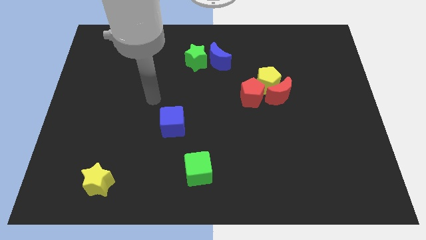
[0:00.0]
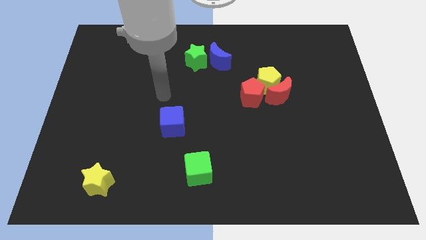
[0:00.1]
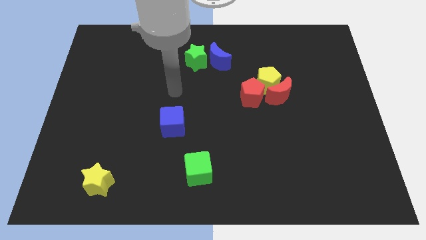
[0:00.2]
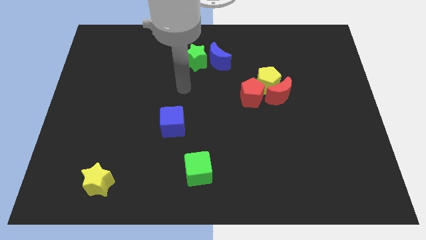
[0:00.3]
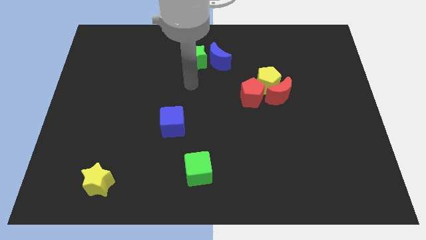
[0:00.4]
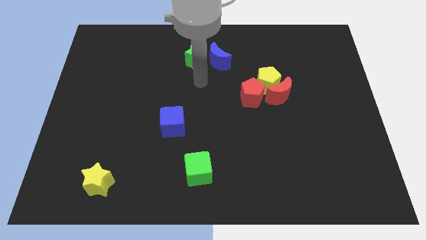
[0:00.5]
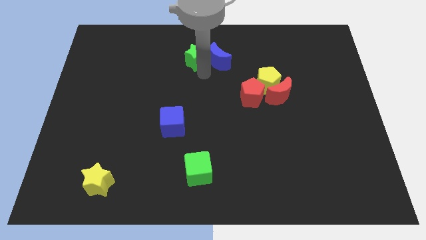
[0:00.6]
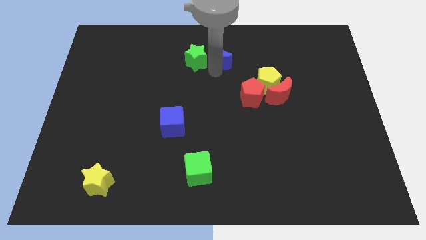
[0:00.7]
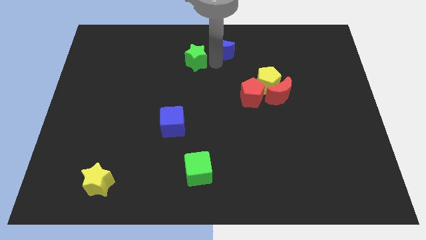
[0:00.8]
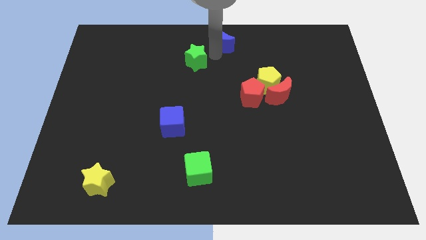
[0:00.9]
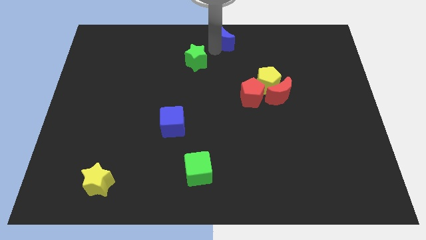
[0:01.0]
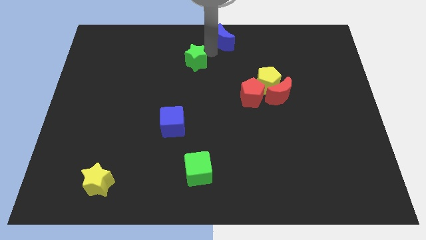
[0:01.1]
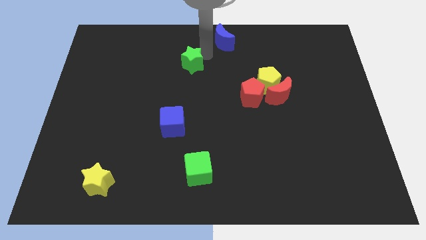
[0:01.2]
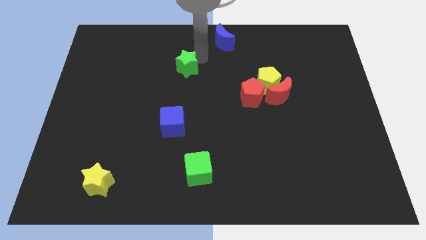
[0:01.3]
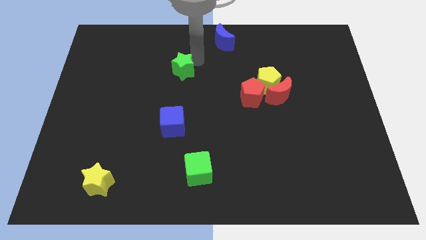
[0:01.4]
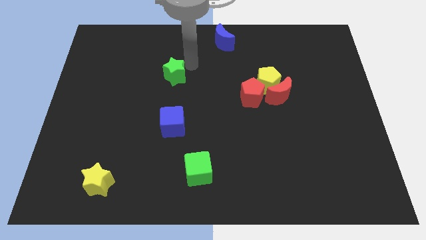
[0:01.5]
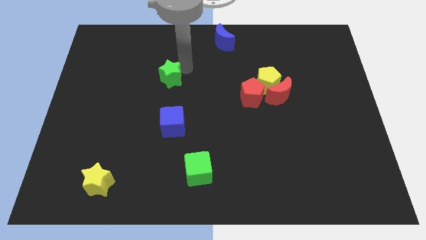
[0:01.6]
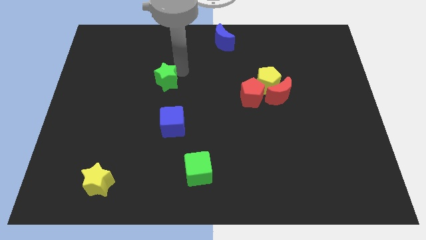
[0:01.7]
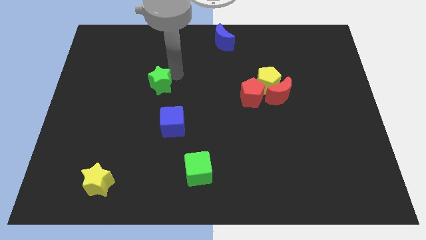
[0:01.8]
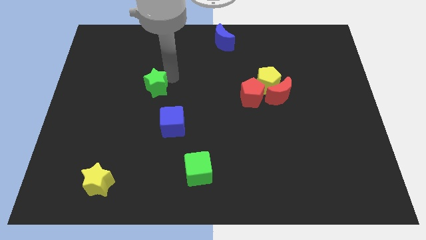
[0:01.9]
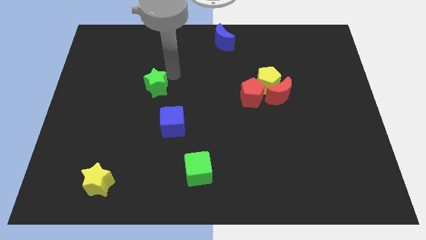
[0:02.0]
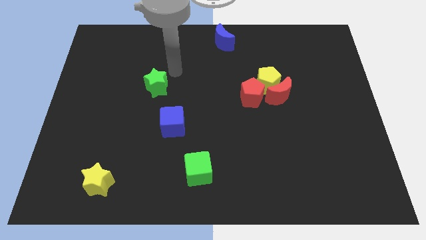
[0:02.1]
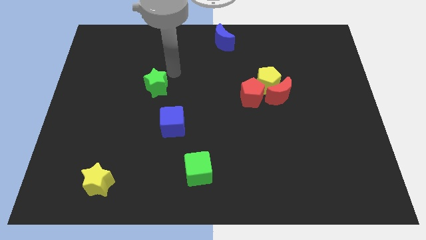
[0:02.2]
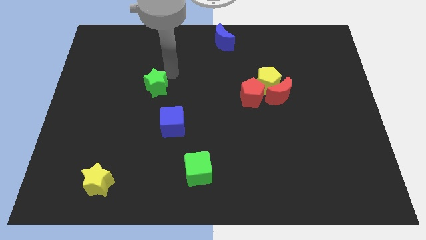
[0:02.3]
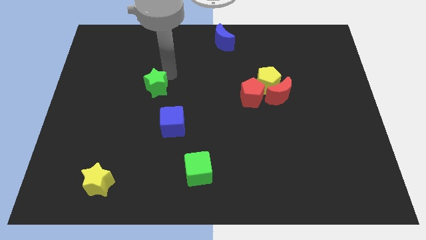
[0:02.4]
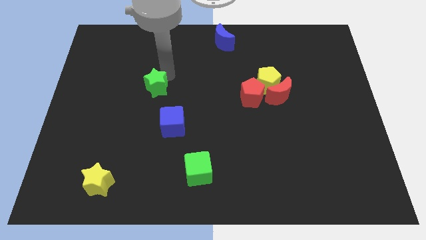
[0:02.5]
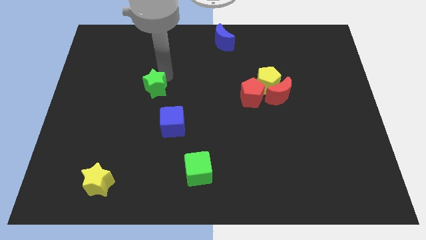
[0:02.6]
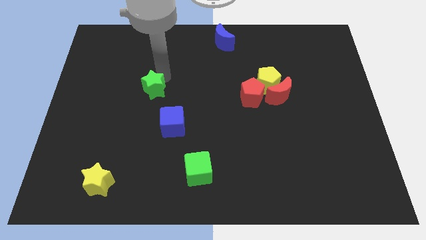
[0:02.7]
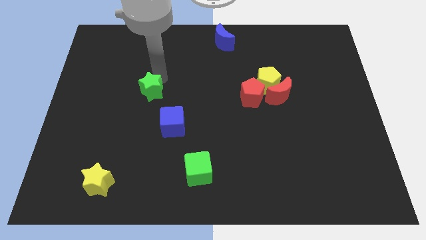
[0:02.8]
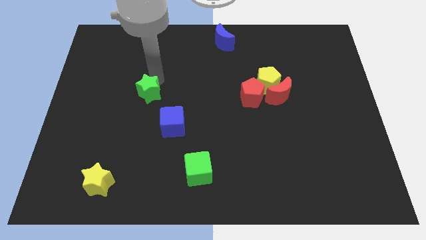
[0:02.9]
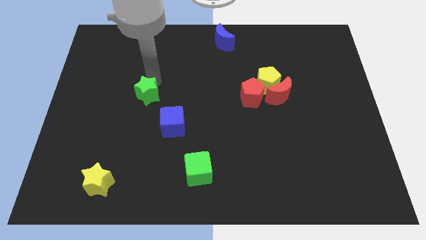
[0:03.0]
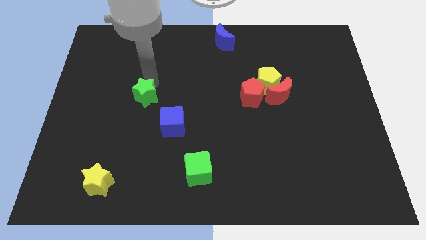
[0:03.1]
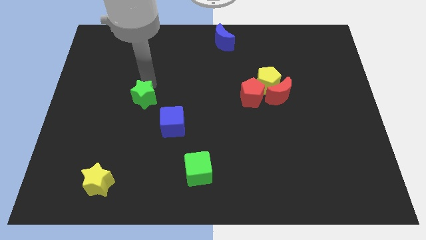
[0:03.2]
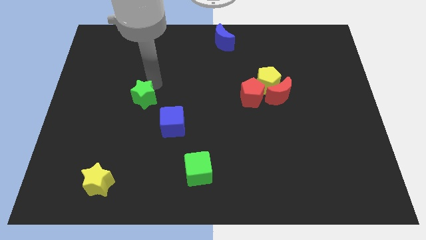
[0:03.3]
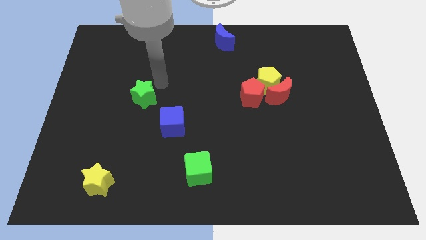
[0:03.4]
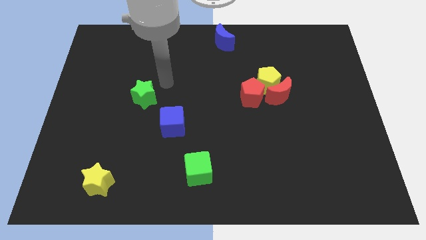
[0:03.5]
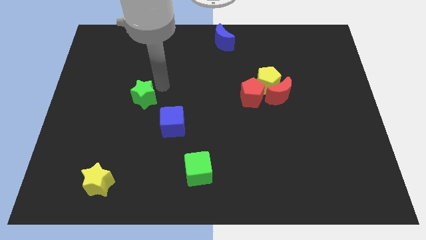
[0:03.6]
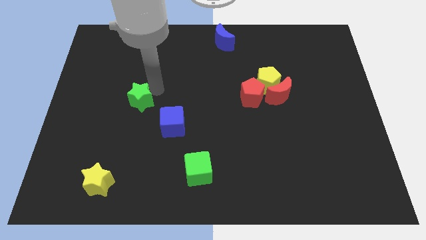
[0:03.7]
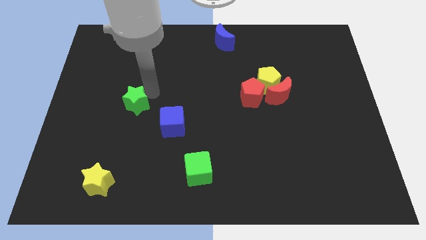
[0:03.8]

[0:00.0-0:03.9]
move the green star down and left

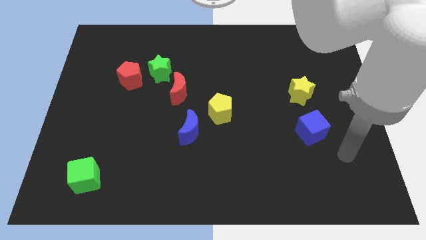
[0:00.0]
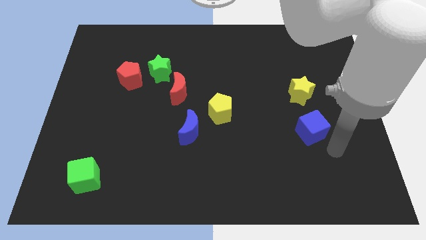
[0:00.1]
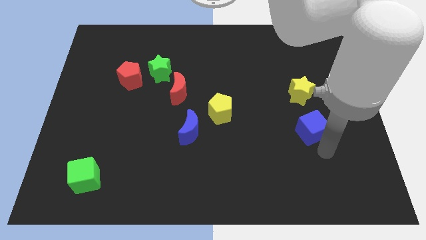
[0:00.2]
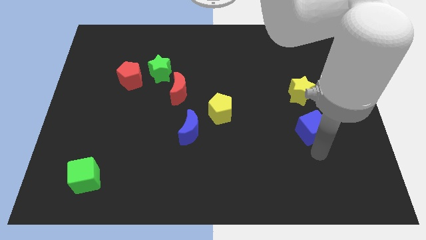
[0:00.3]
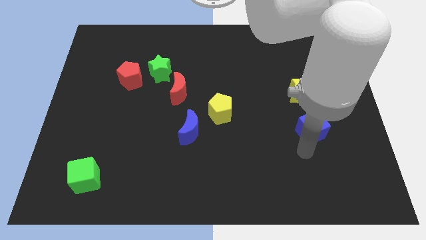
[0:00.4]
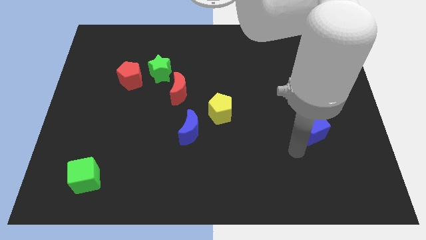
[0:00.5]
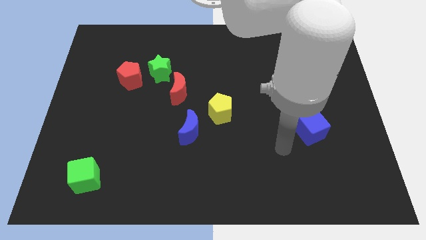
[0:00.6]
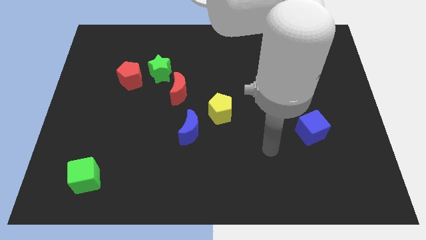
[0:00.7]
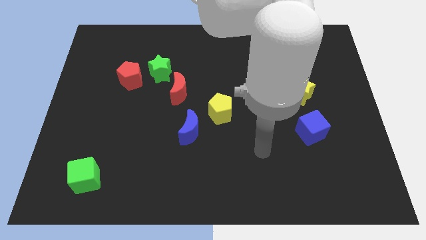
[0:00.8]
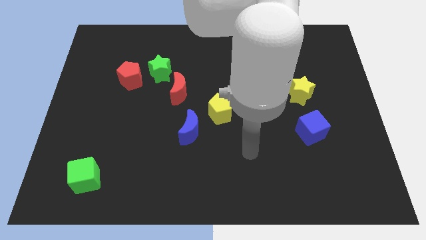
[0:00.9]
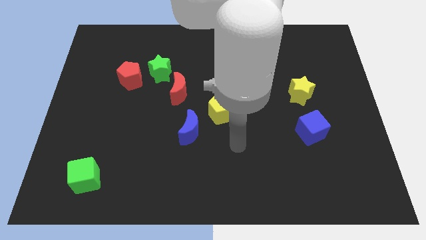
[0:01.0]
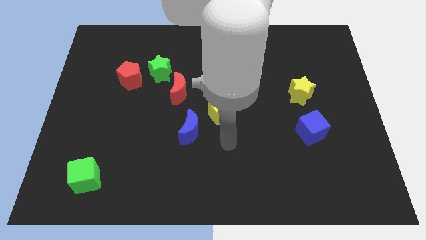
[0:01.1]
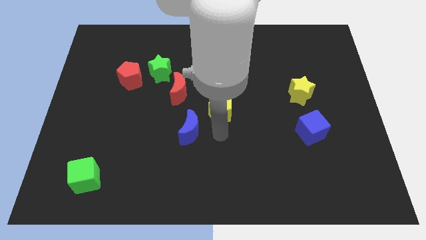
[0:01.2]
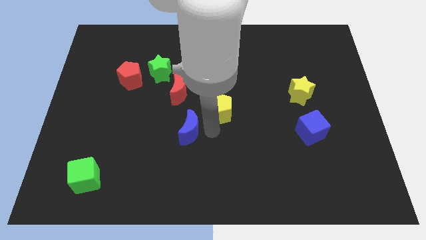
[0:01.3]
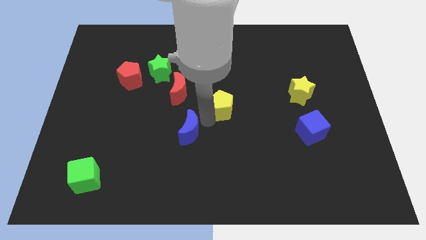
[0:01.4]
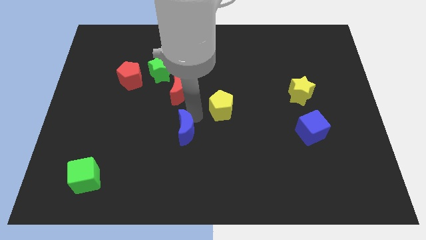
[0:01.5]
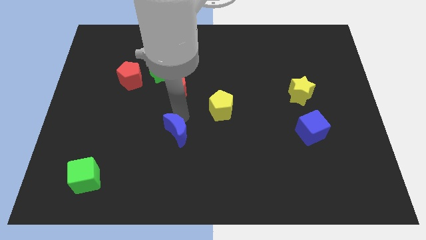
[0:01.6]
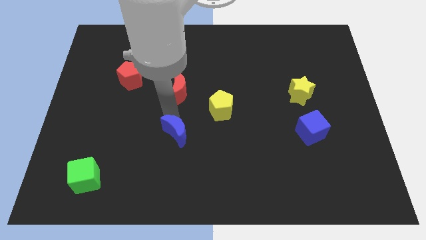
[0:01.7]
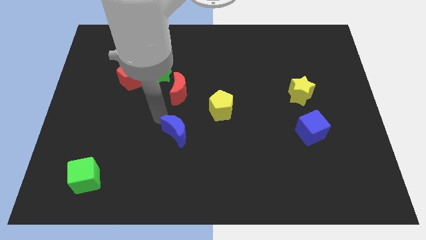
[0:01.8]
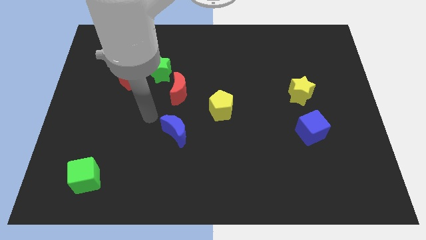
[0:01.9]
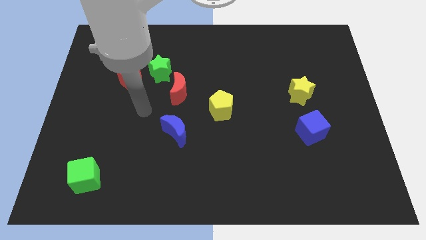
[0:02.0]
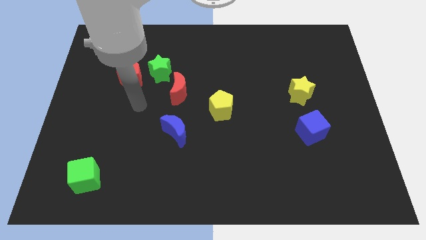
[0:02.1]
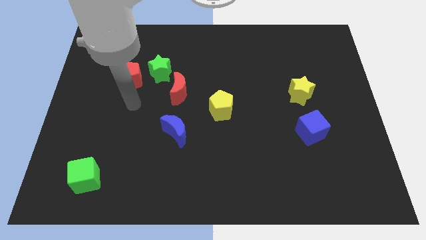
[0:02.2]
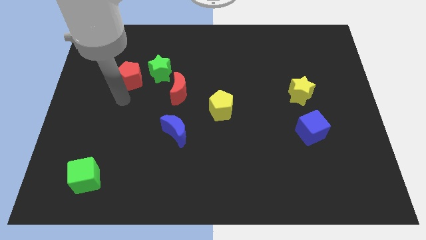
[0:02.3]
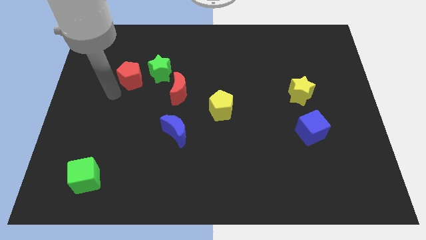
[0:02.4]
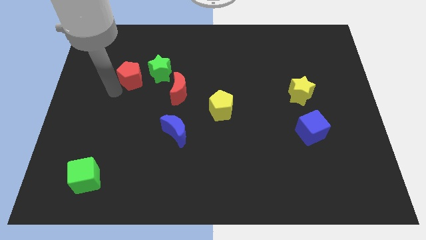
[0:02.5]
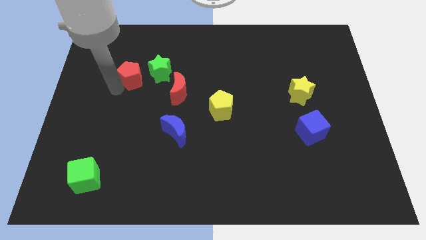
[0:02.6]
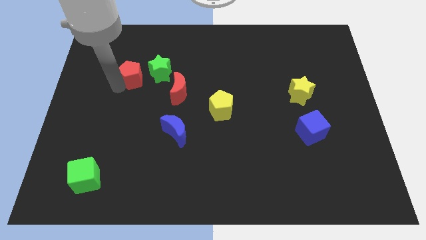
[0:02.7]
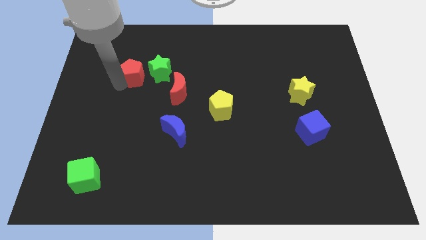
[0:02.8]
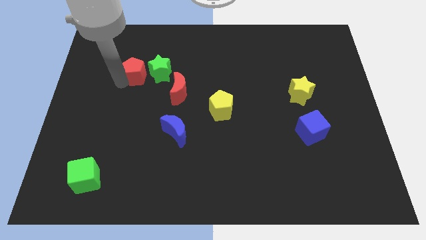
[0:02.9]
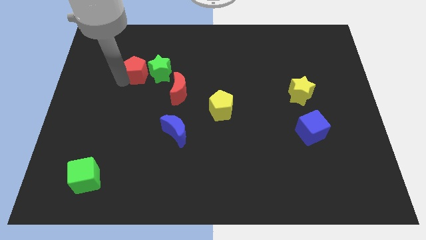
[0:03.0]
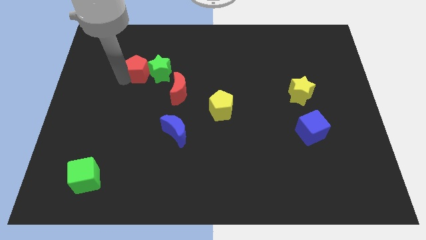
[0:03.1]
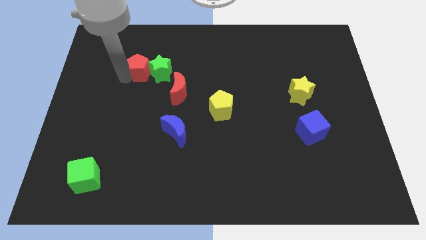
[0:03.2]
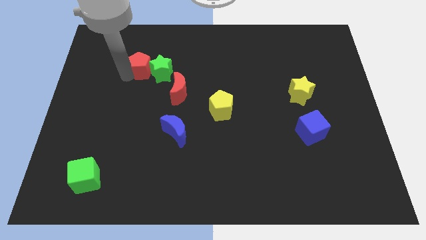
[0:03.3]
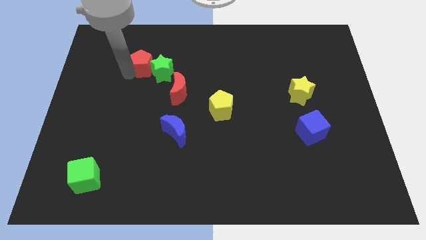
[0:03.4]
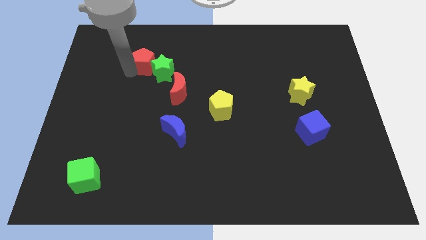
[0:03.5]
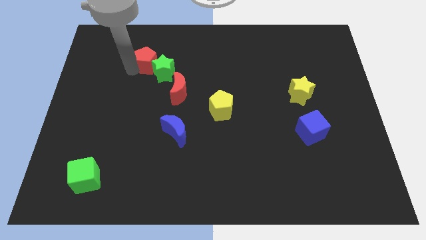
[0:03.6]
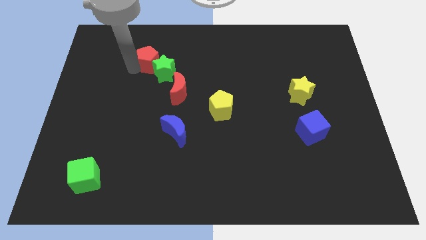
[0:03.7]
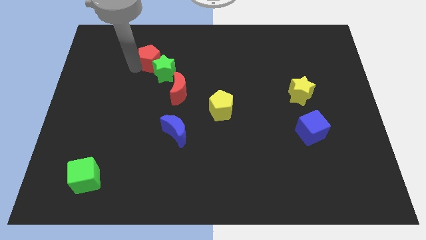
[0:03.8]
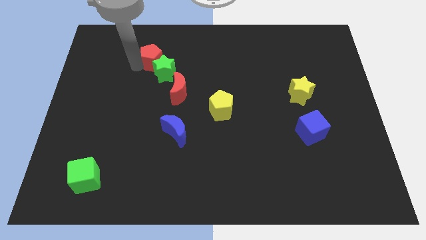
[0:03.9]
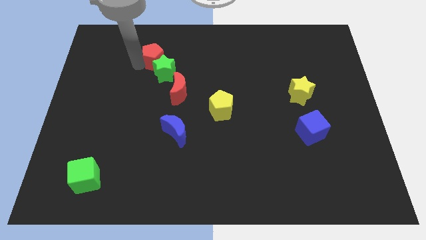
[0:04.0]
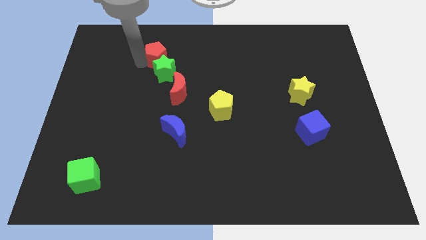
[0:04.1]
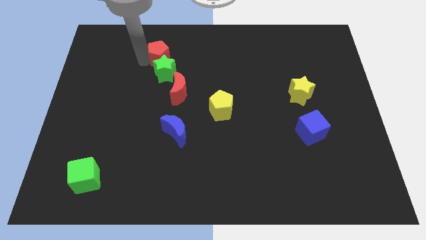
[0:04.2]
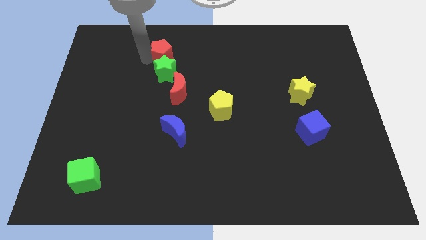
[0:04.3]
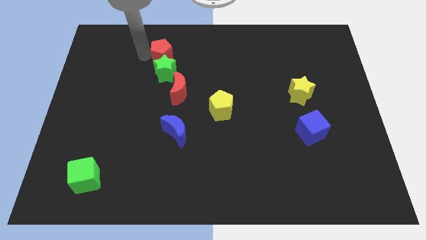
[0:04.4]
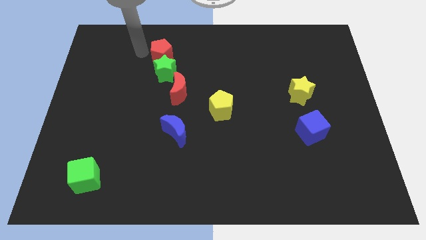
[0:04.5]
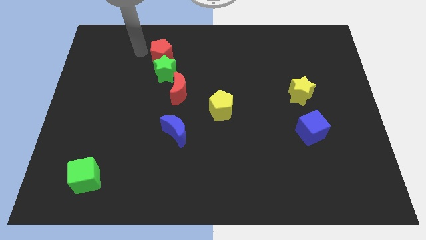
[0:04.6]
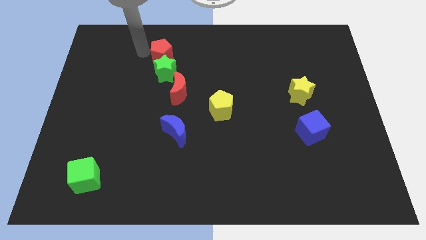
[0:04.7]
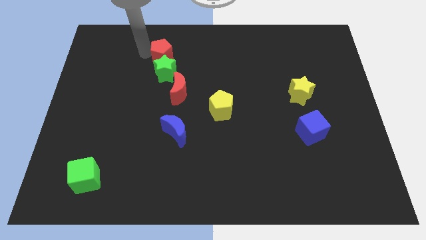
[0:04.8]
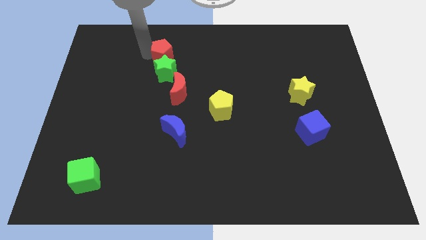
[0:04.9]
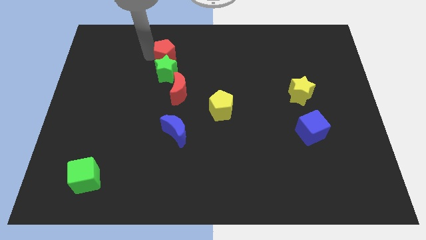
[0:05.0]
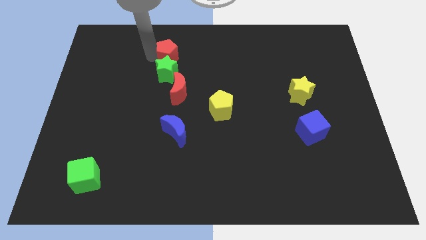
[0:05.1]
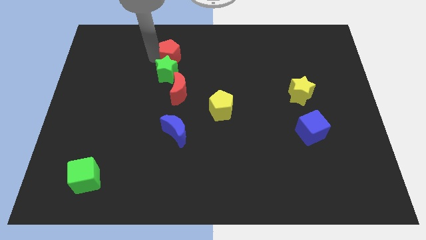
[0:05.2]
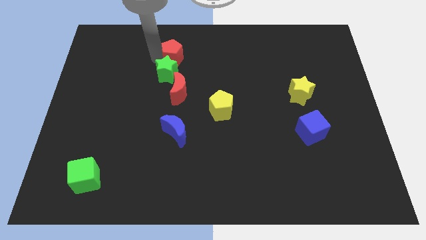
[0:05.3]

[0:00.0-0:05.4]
slightly slide the red pentagon to the right
